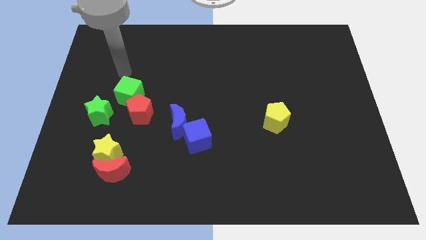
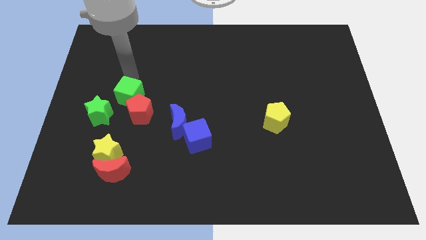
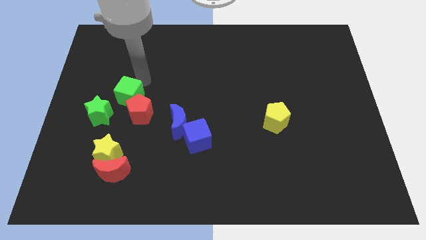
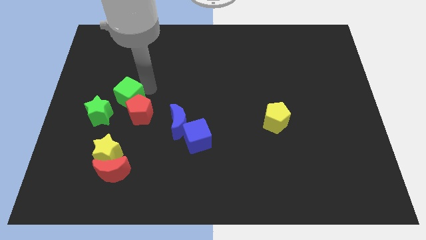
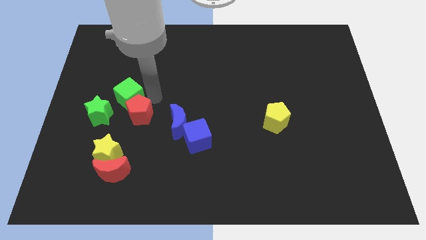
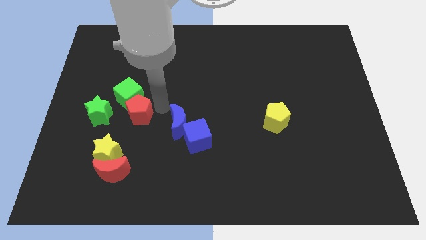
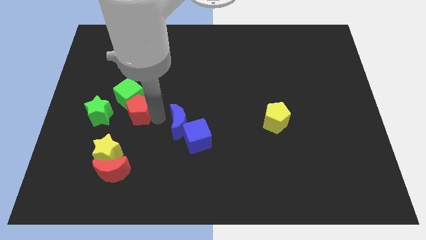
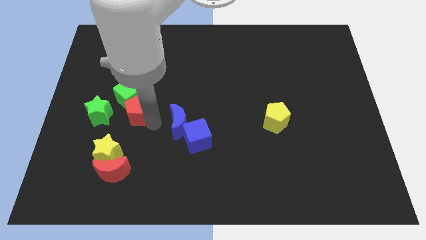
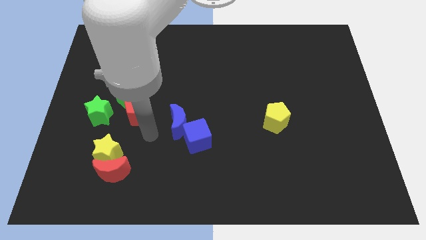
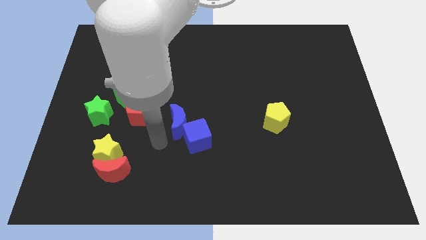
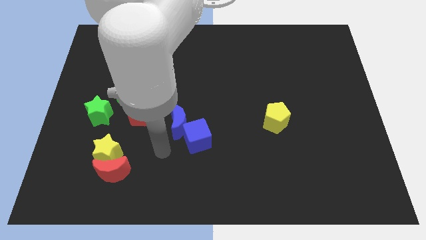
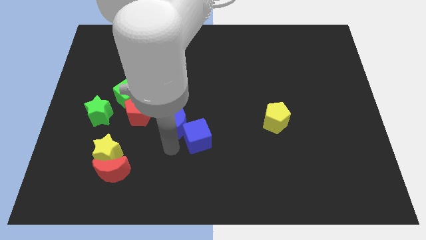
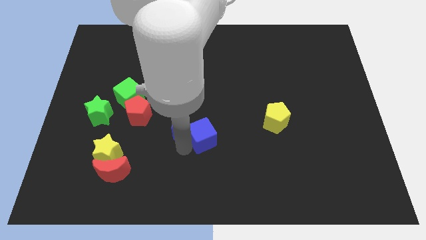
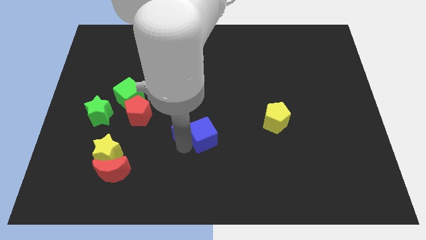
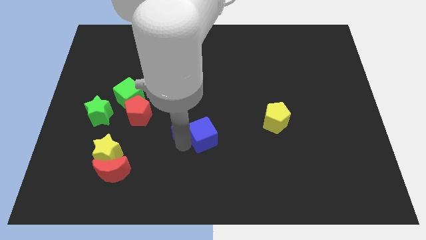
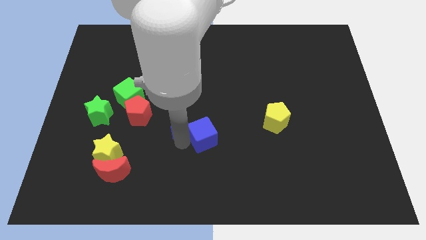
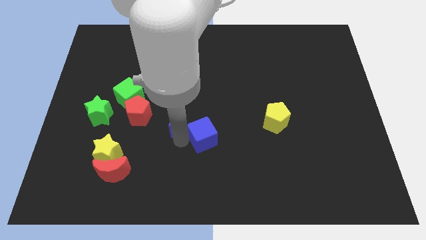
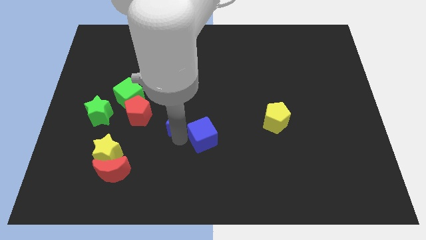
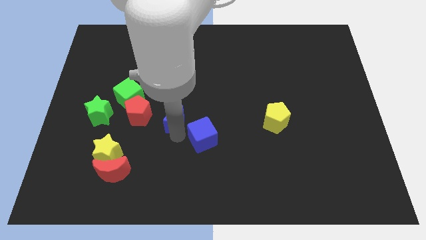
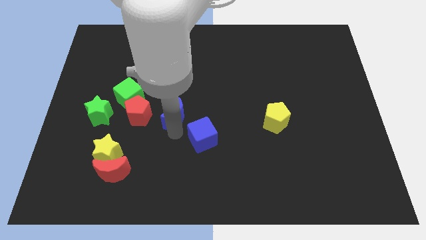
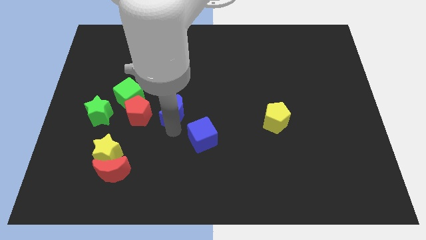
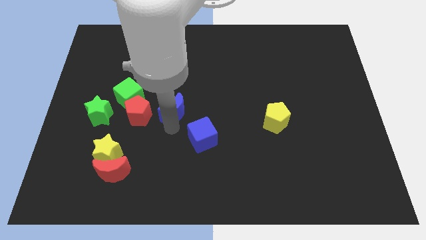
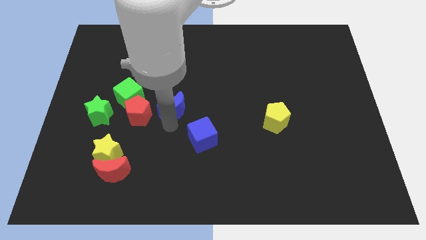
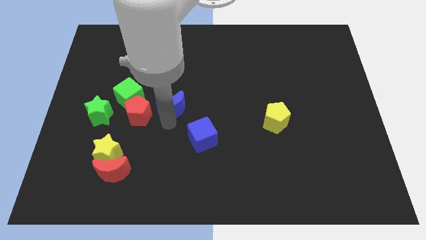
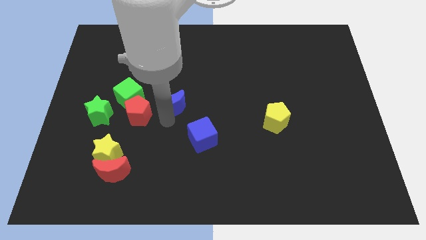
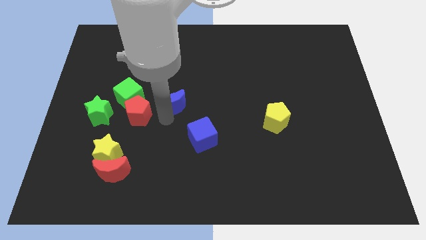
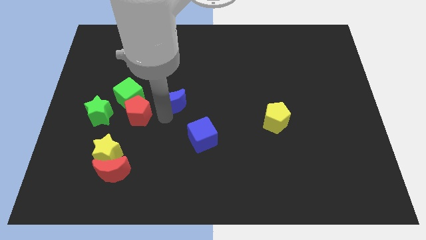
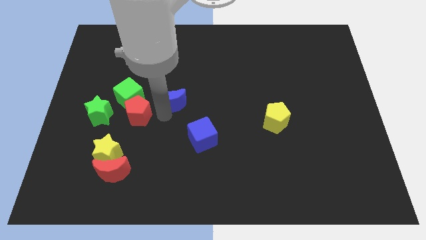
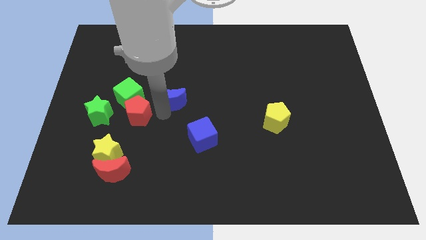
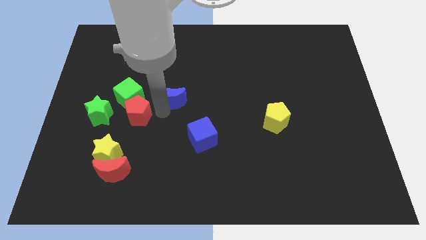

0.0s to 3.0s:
push the blue moon up a little bit

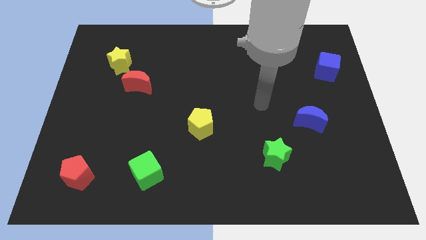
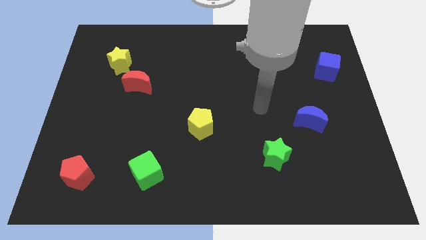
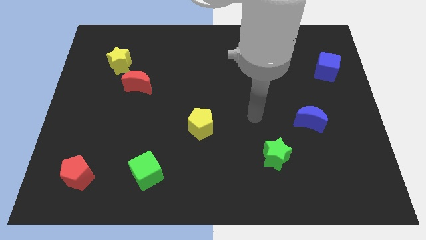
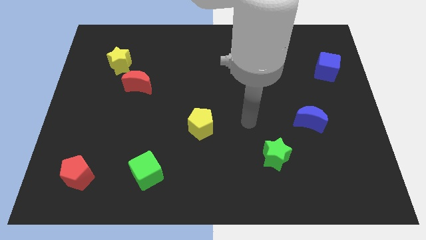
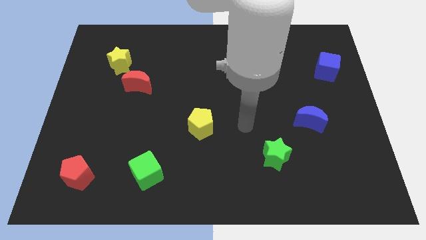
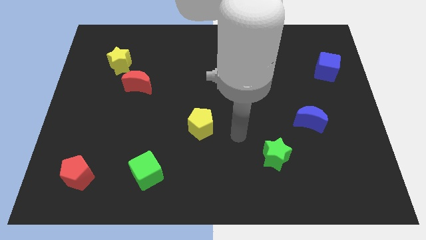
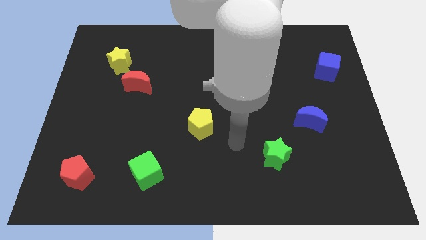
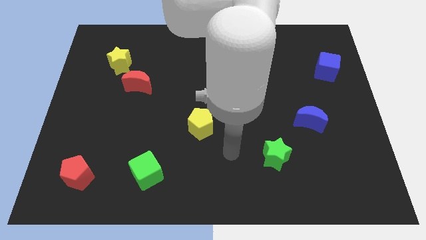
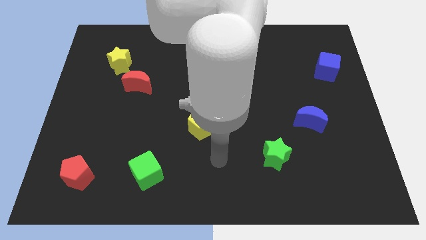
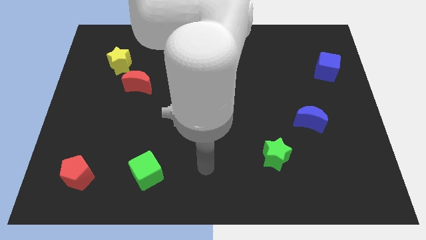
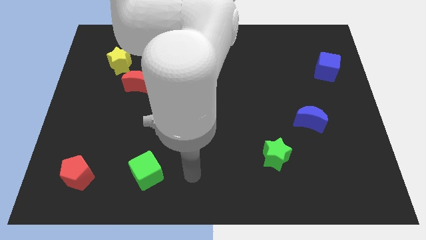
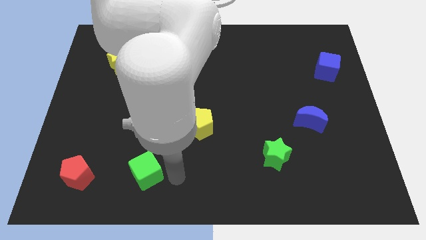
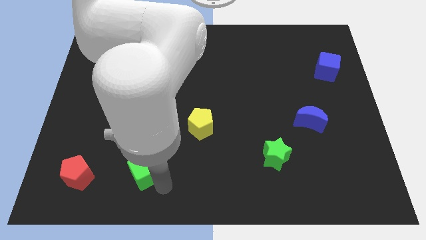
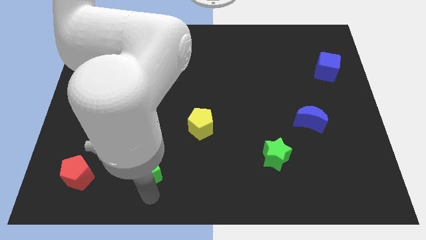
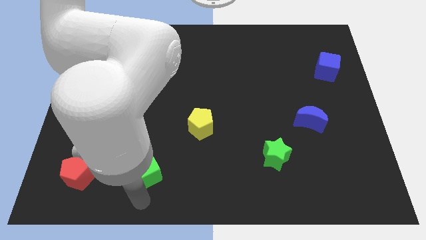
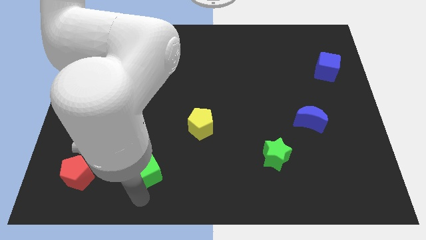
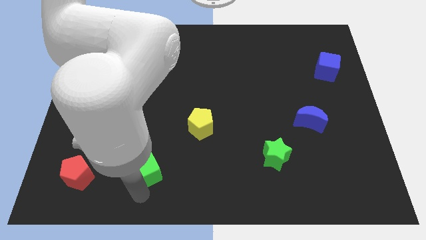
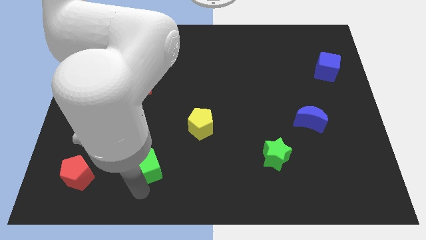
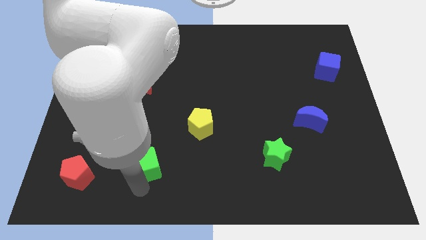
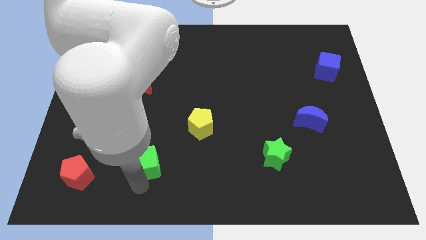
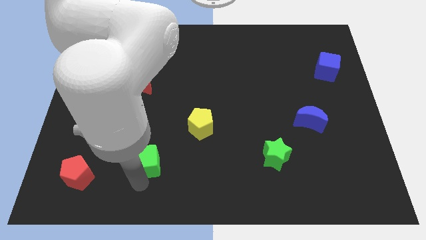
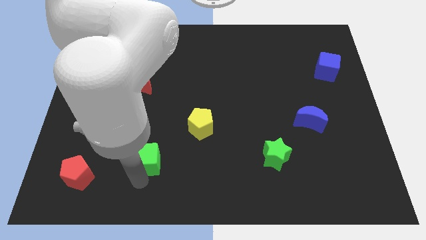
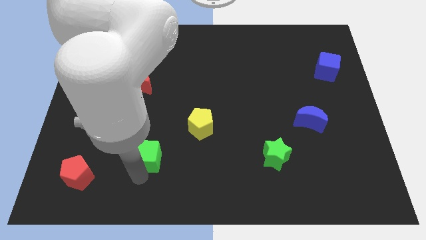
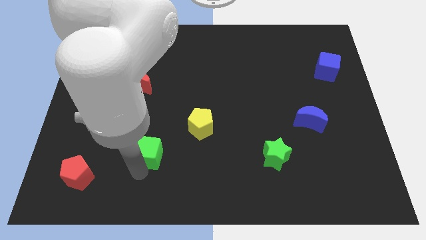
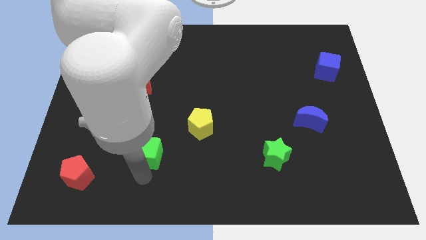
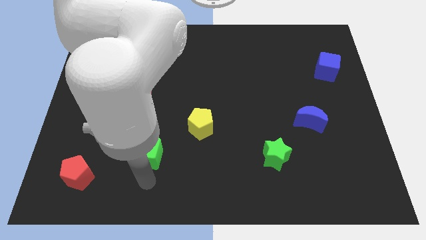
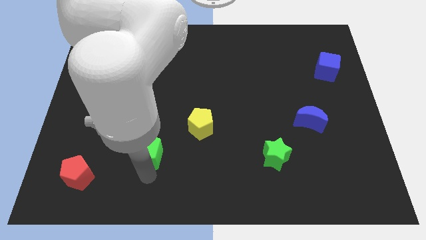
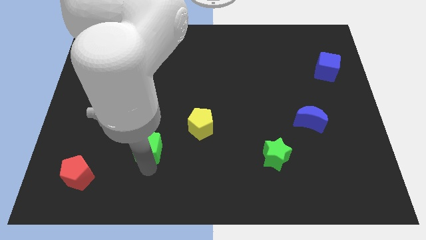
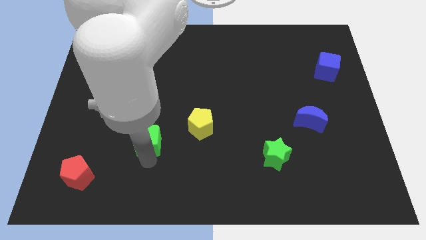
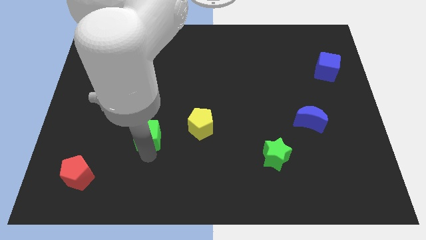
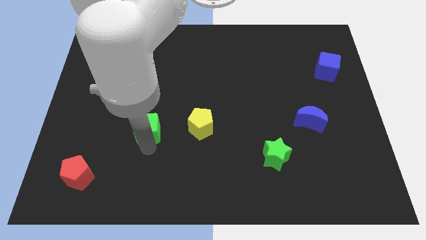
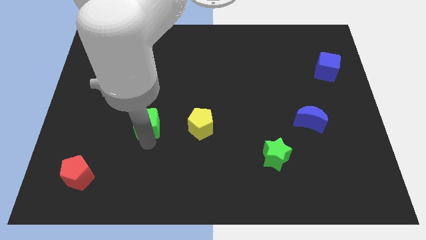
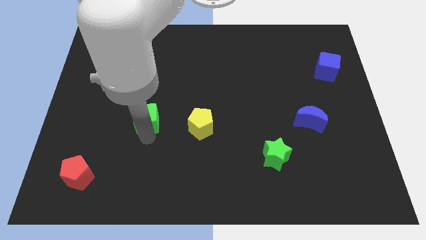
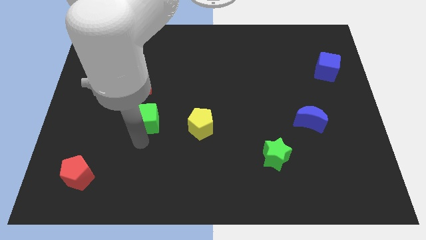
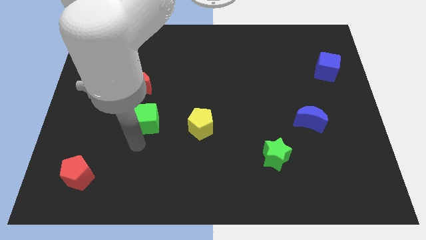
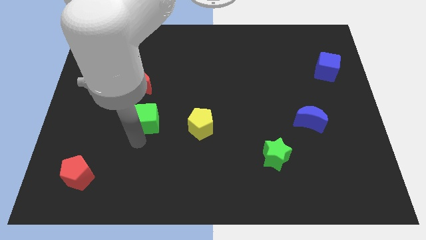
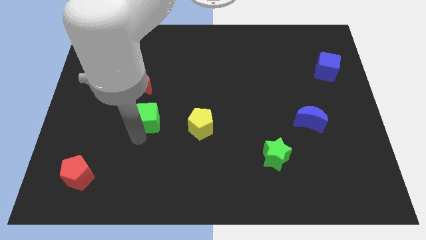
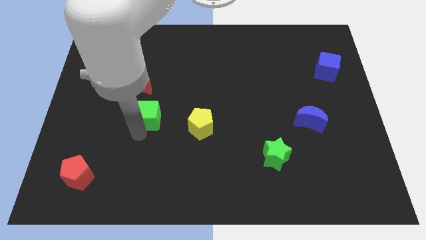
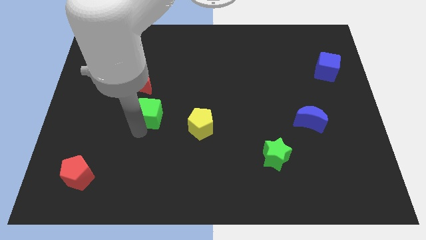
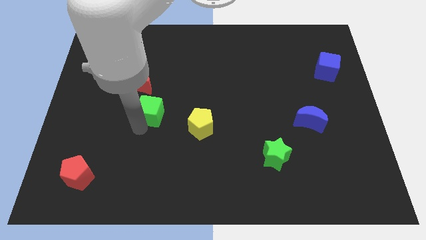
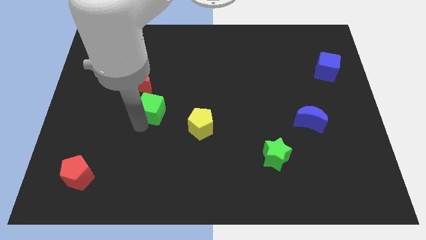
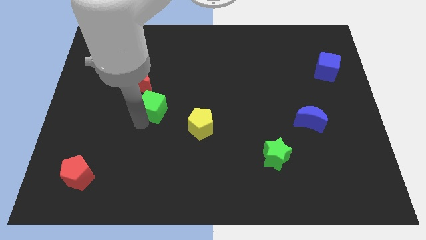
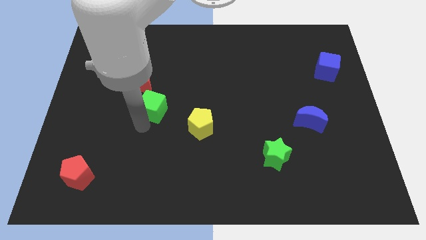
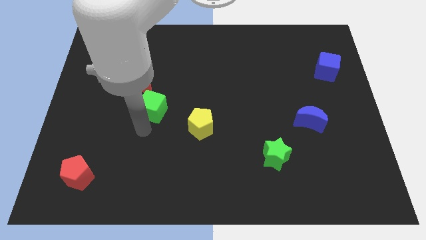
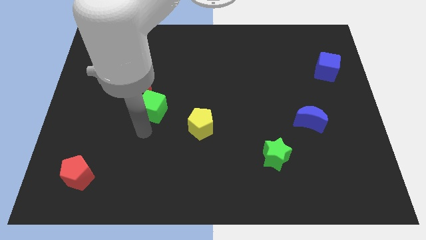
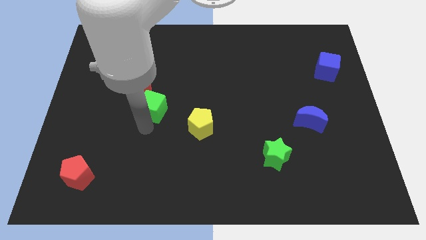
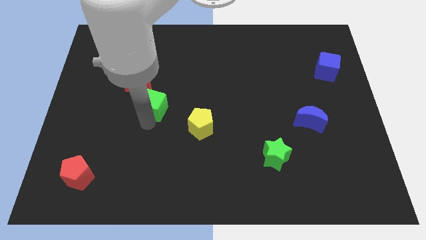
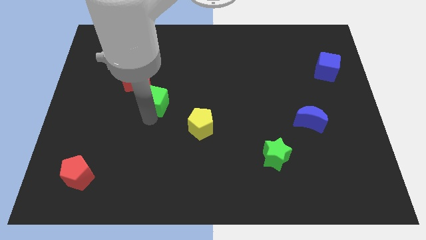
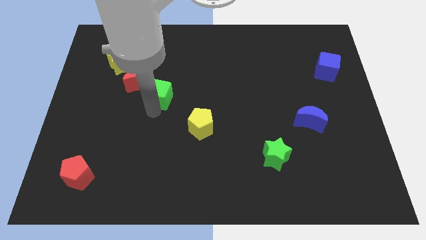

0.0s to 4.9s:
slide the green cube up
